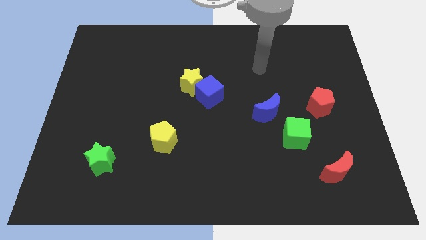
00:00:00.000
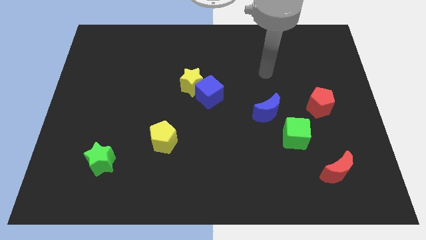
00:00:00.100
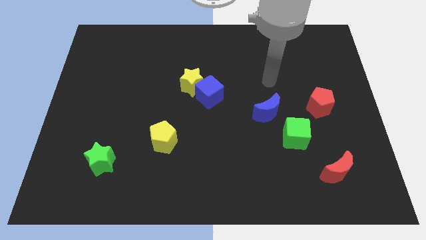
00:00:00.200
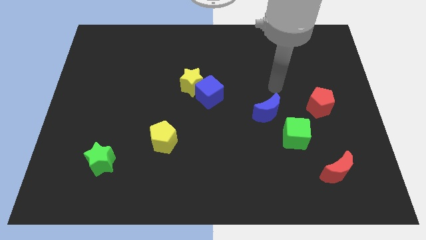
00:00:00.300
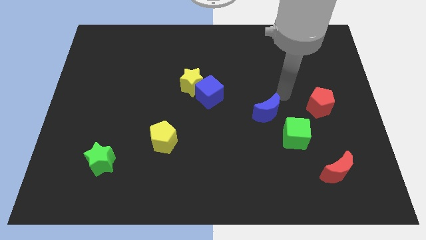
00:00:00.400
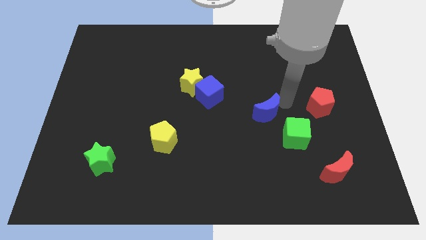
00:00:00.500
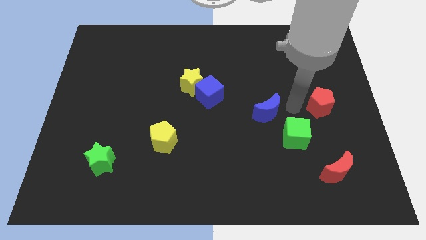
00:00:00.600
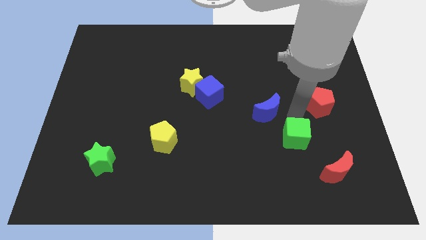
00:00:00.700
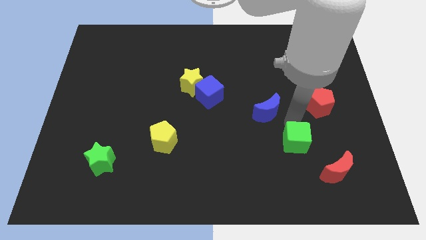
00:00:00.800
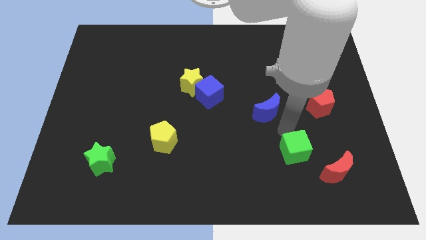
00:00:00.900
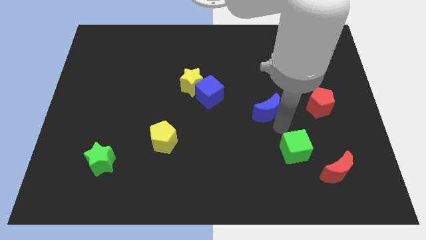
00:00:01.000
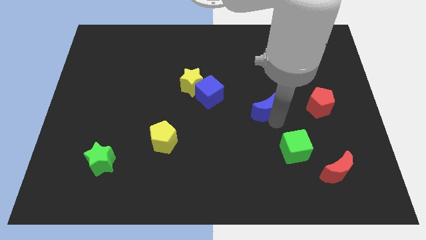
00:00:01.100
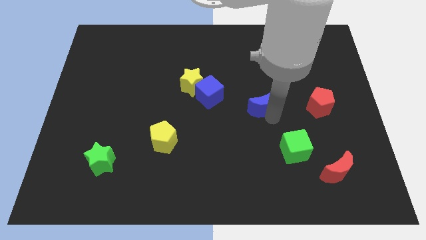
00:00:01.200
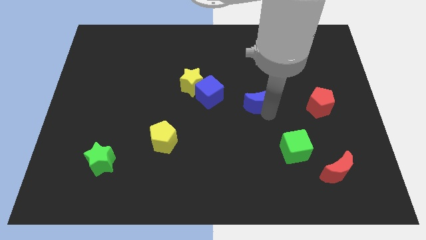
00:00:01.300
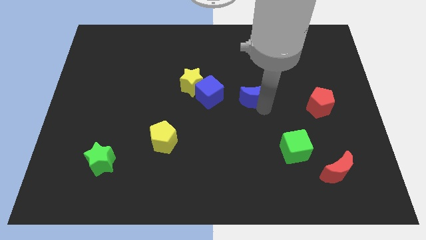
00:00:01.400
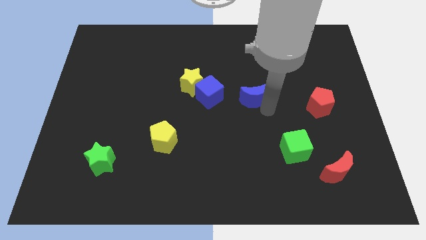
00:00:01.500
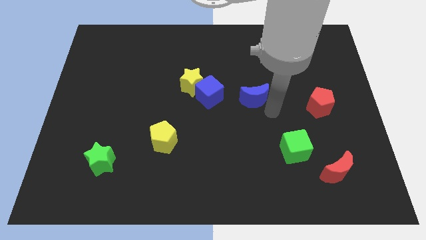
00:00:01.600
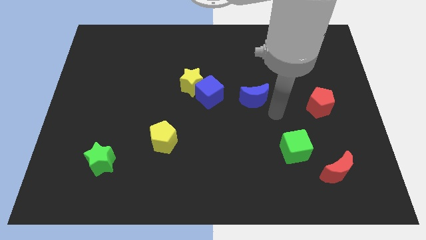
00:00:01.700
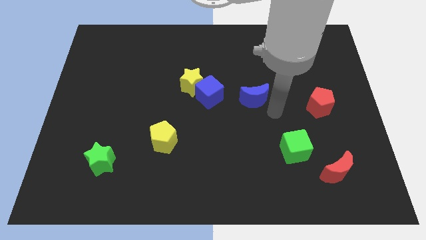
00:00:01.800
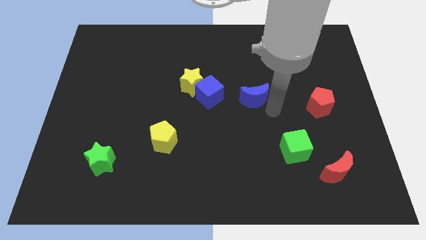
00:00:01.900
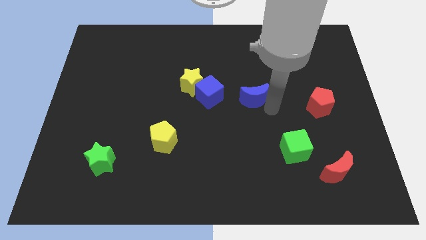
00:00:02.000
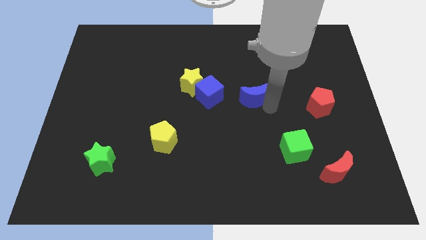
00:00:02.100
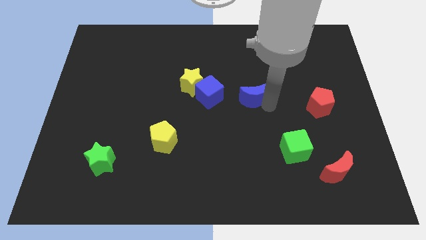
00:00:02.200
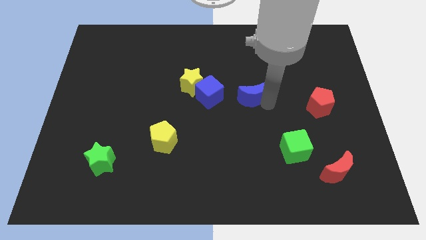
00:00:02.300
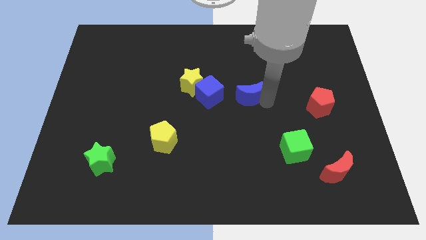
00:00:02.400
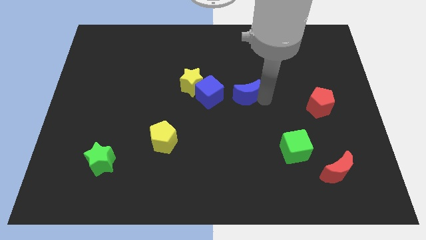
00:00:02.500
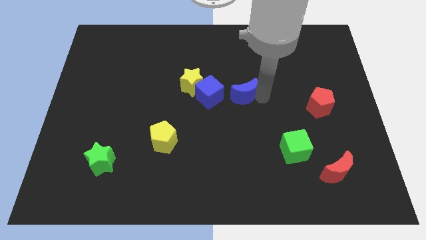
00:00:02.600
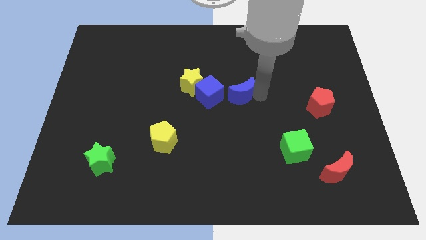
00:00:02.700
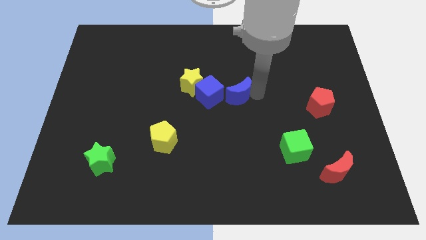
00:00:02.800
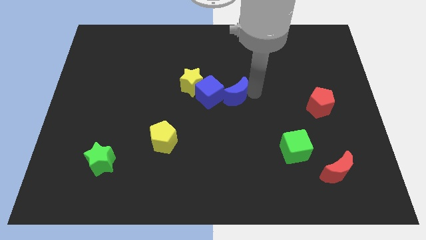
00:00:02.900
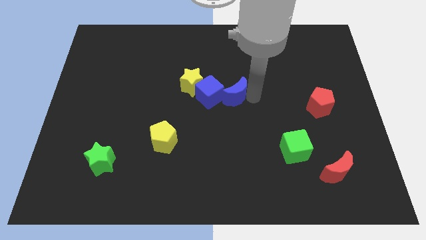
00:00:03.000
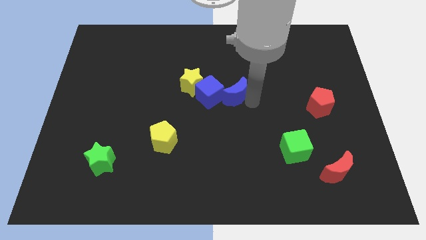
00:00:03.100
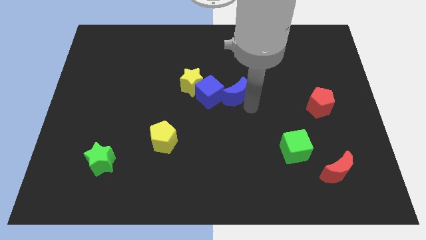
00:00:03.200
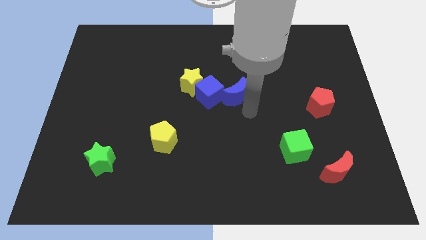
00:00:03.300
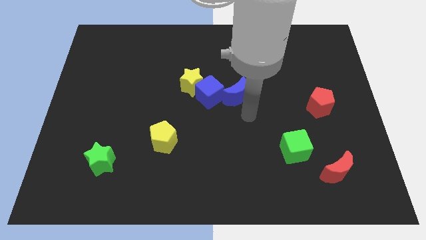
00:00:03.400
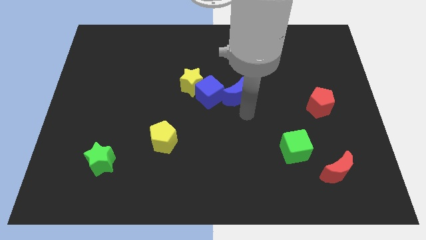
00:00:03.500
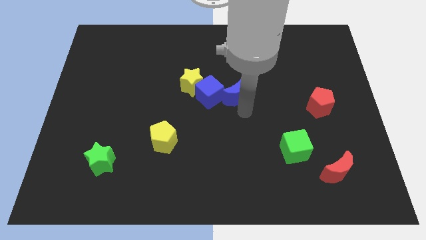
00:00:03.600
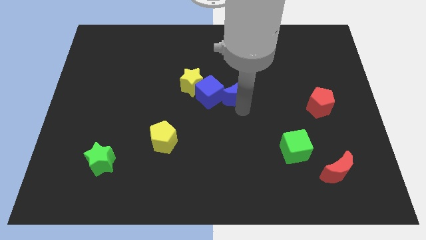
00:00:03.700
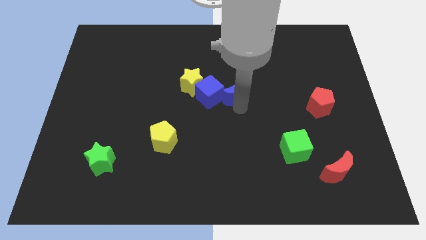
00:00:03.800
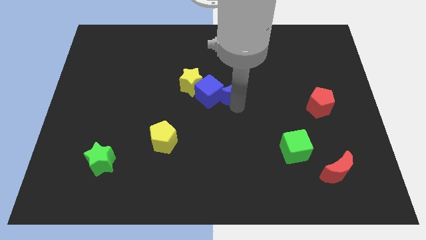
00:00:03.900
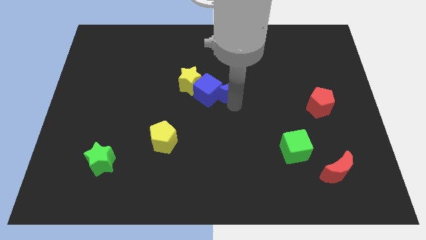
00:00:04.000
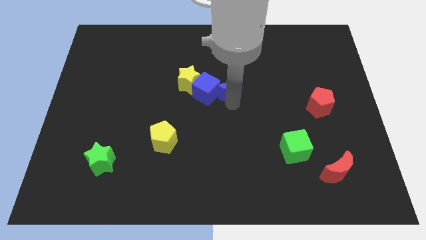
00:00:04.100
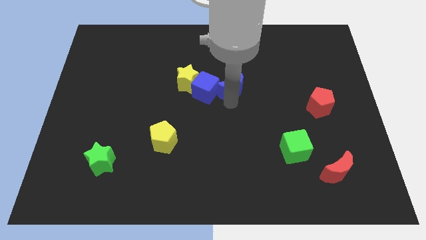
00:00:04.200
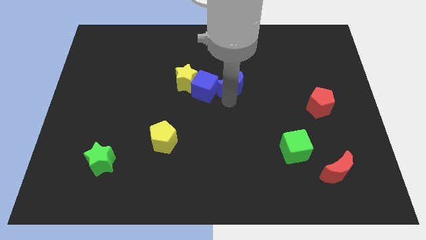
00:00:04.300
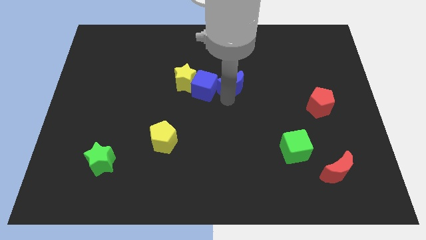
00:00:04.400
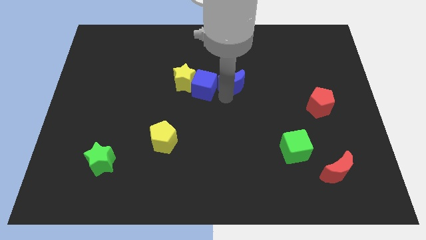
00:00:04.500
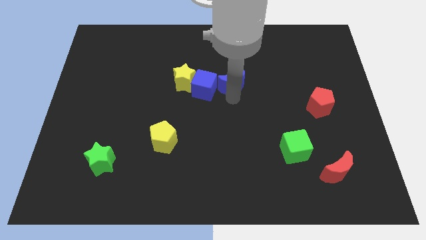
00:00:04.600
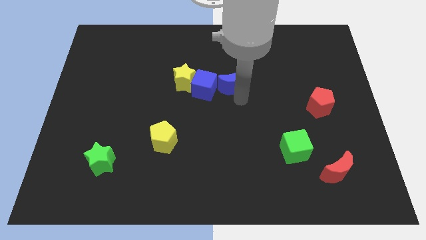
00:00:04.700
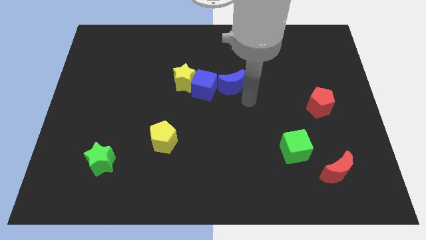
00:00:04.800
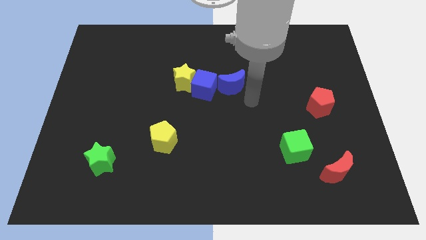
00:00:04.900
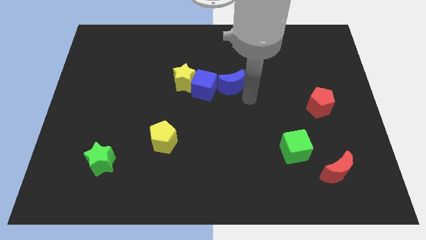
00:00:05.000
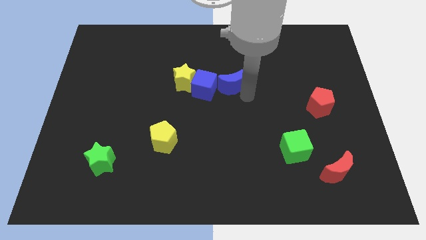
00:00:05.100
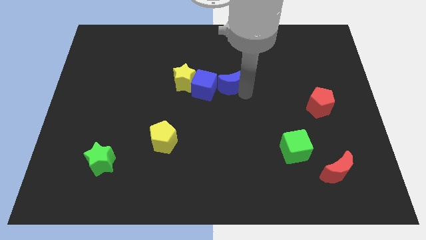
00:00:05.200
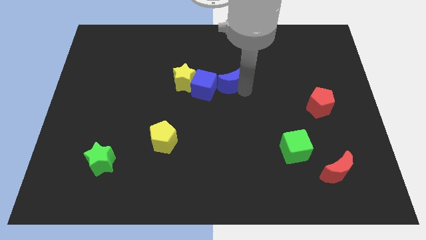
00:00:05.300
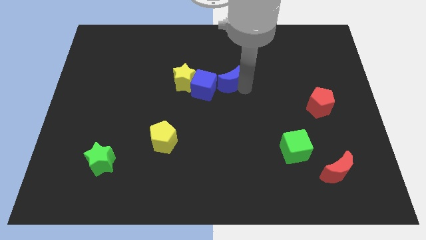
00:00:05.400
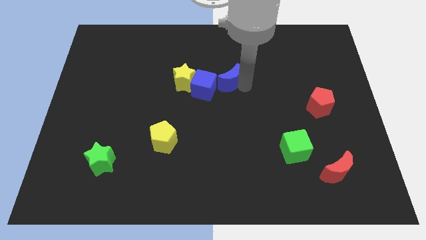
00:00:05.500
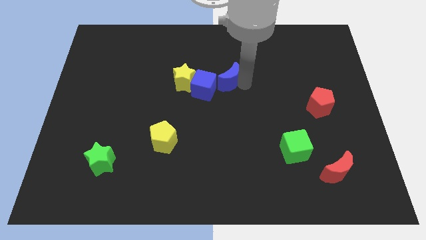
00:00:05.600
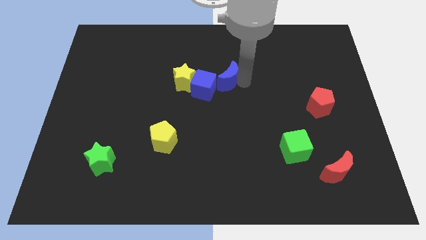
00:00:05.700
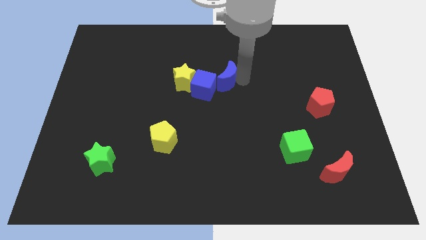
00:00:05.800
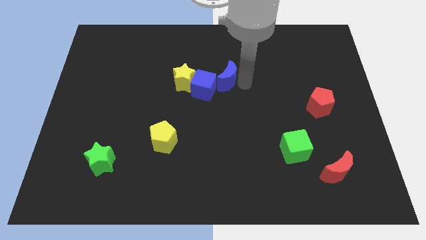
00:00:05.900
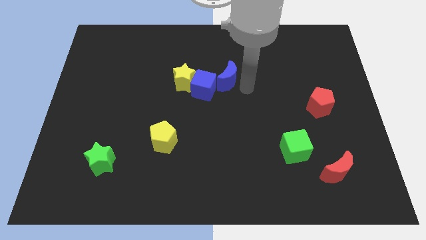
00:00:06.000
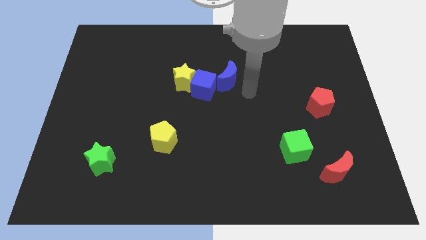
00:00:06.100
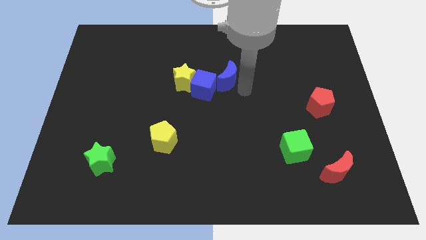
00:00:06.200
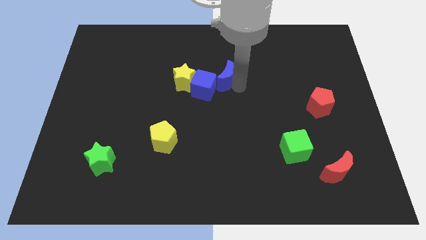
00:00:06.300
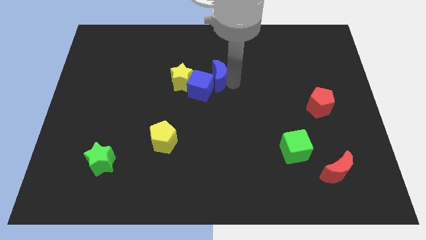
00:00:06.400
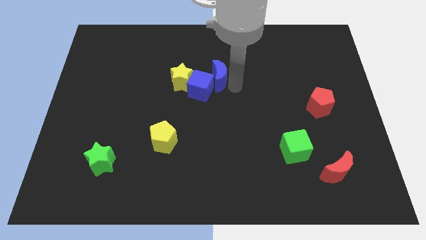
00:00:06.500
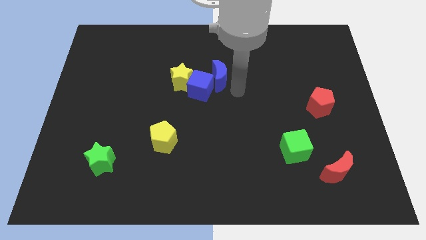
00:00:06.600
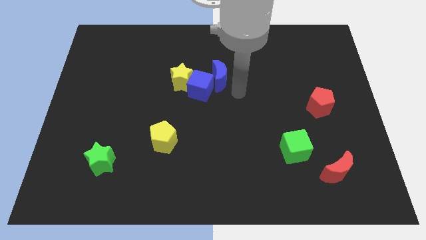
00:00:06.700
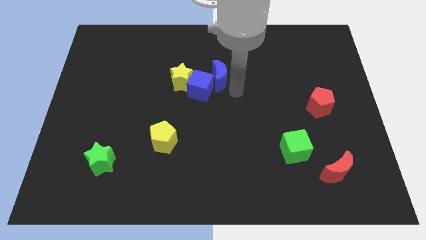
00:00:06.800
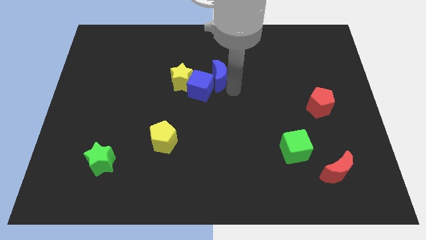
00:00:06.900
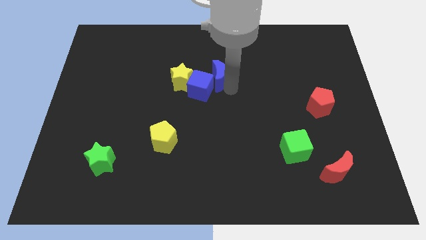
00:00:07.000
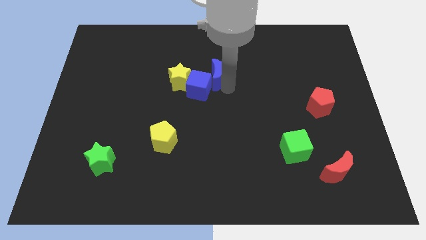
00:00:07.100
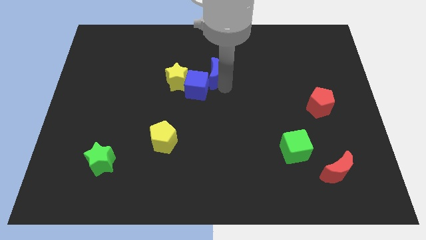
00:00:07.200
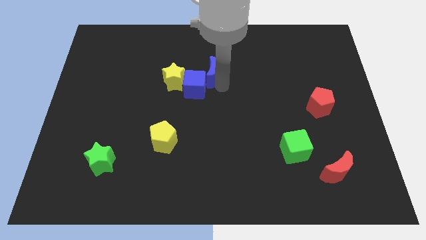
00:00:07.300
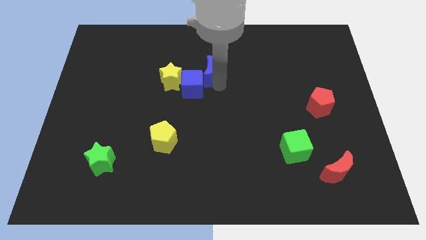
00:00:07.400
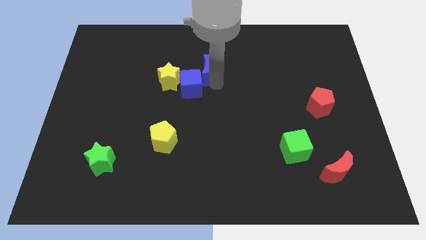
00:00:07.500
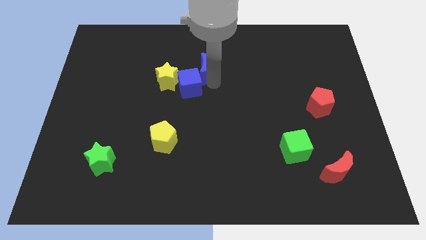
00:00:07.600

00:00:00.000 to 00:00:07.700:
push the blue moon to the top right side of the yellow star
